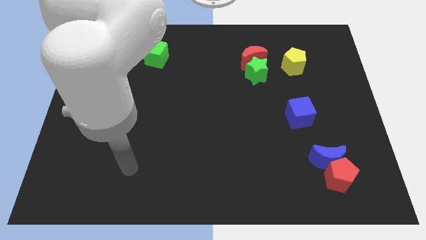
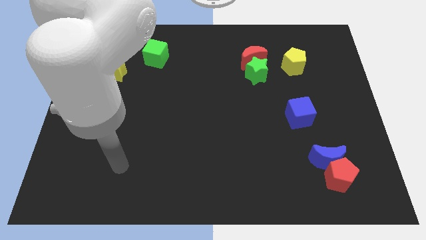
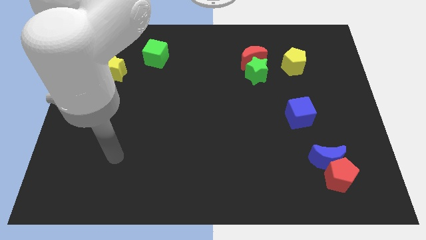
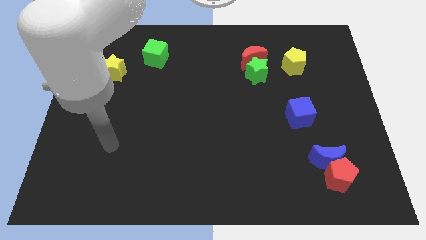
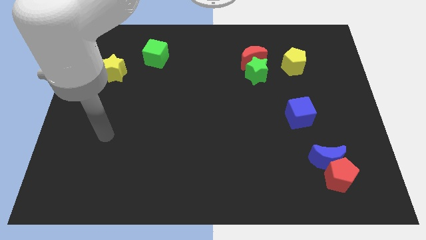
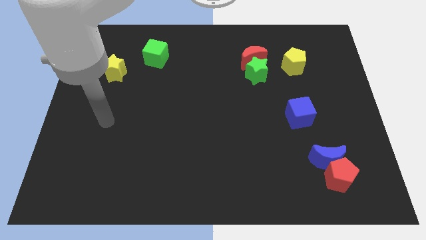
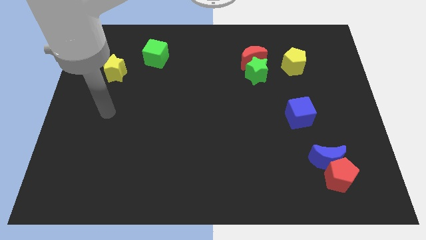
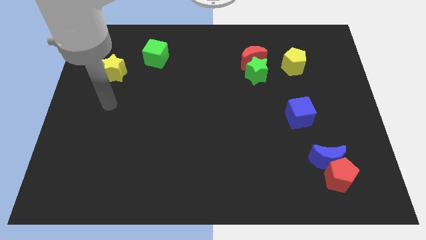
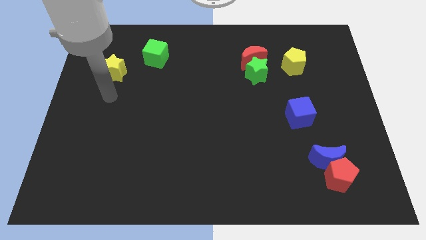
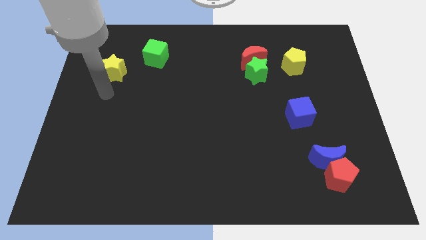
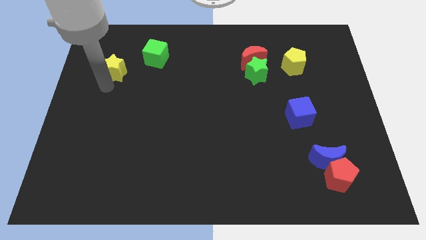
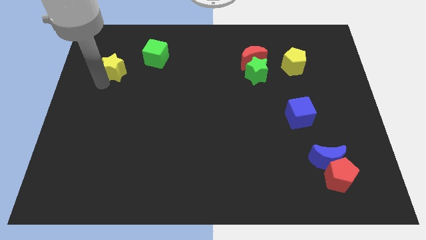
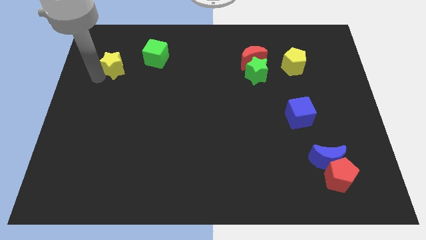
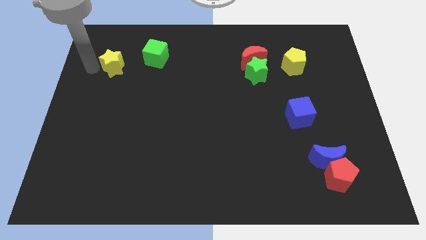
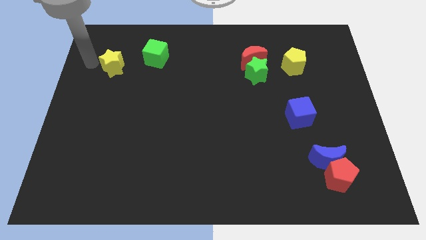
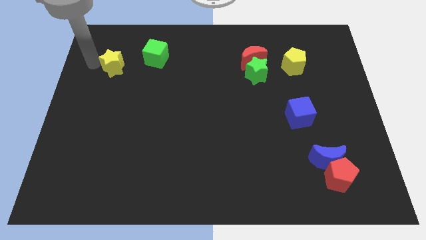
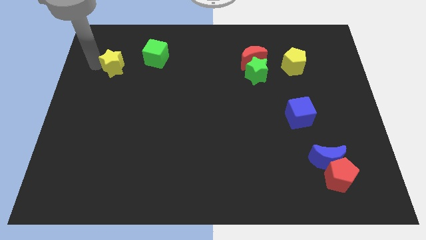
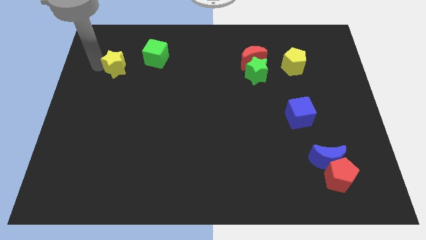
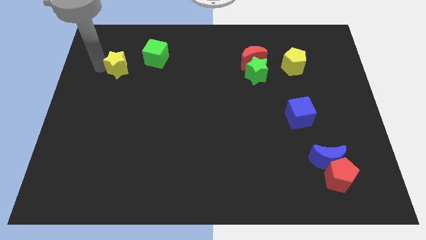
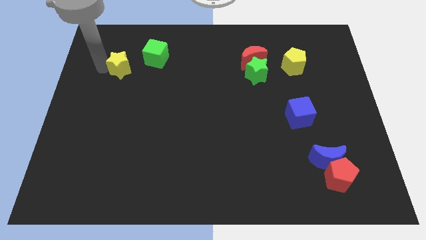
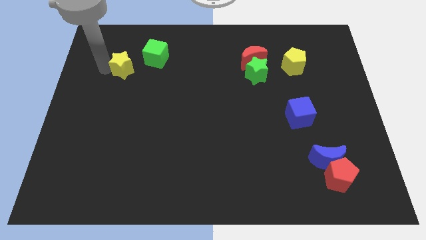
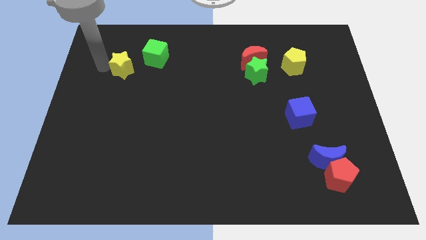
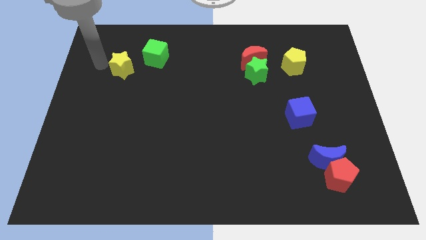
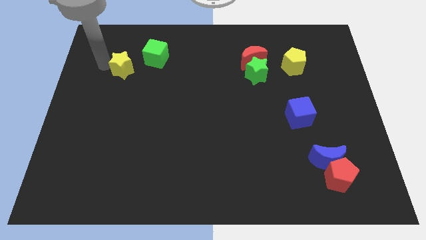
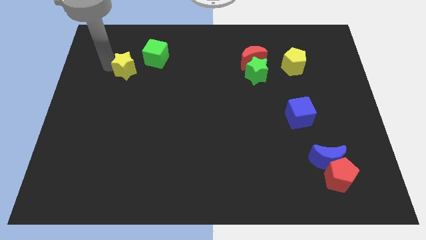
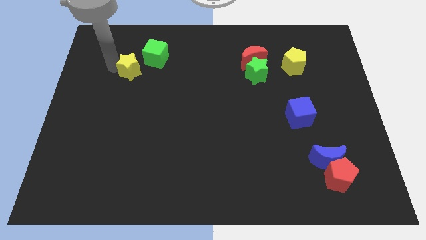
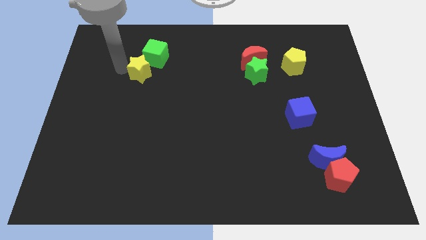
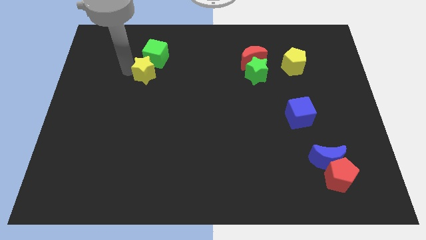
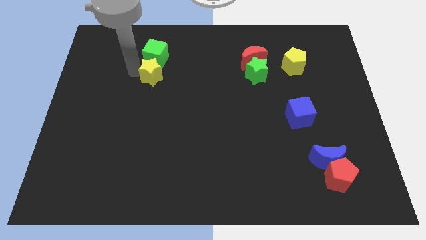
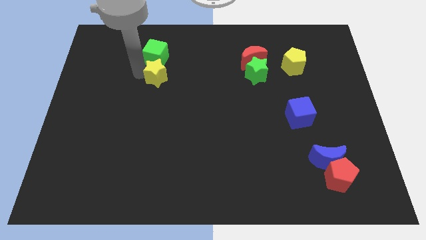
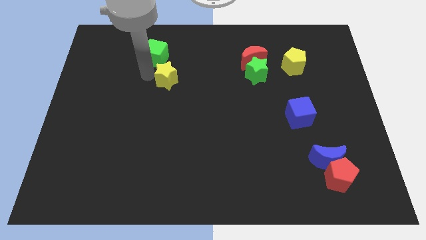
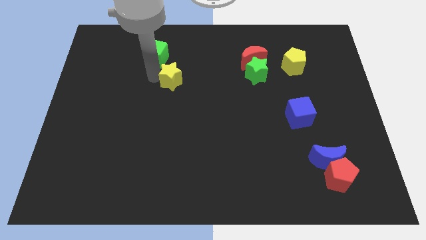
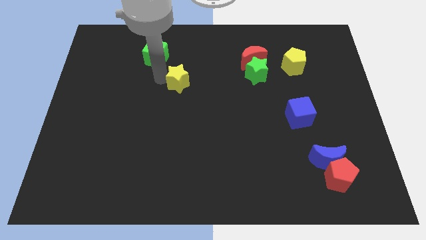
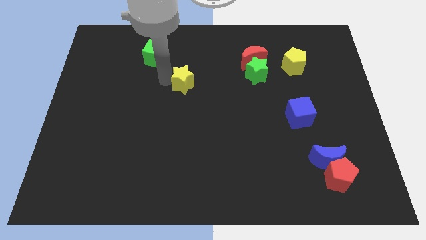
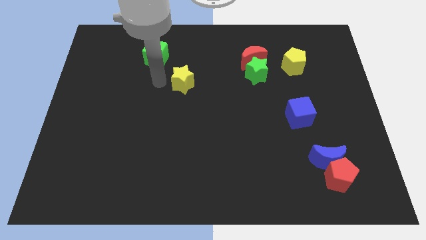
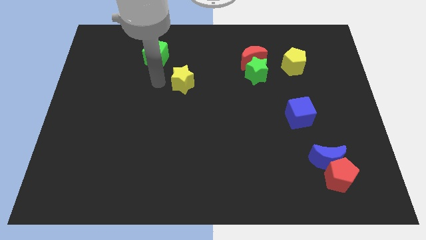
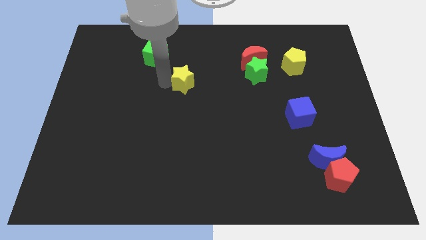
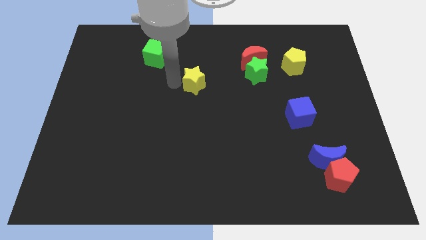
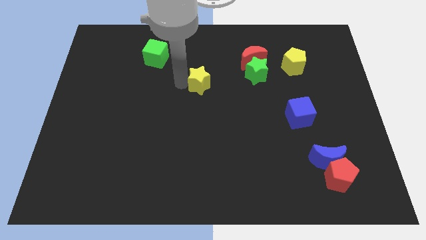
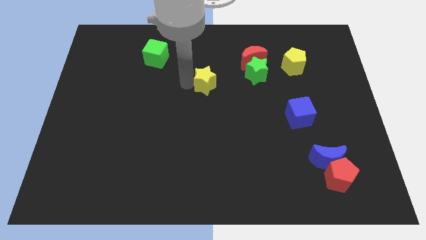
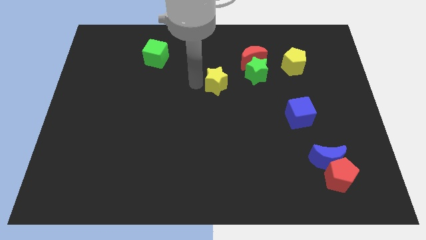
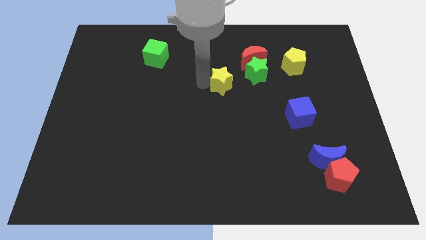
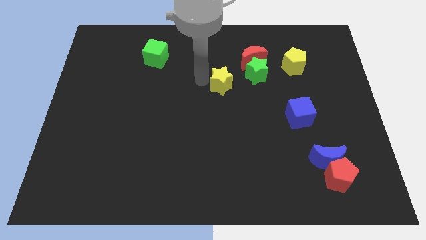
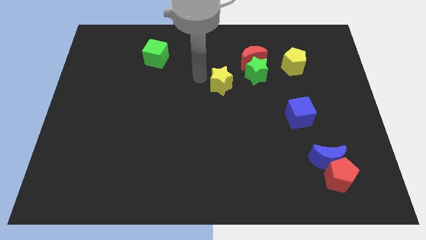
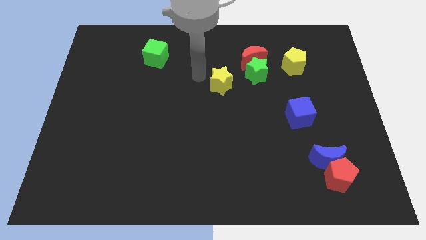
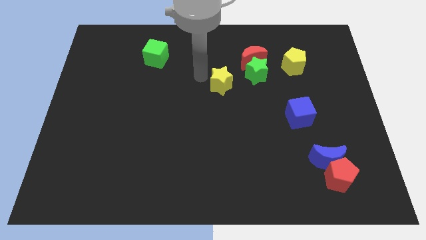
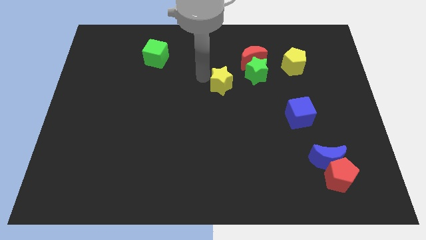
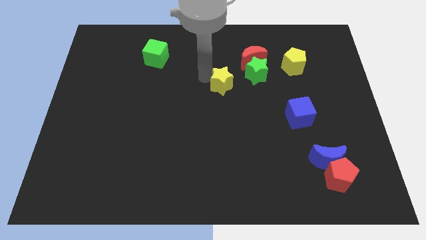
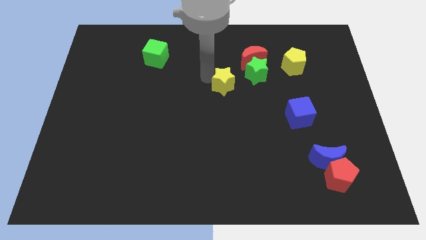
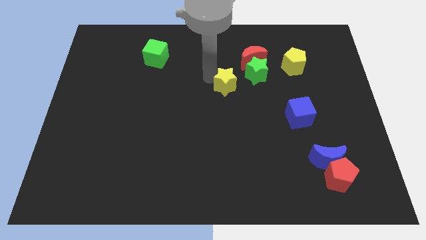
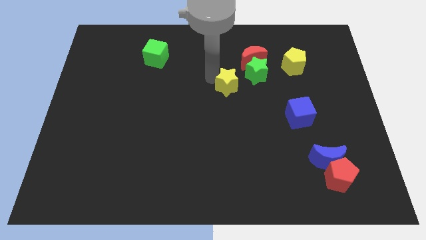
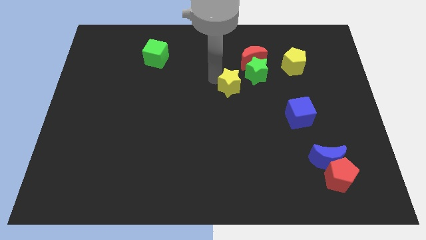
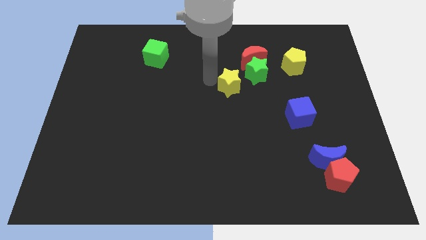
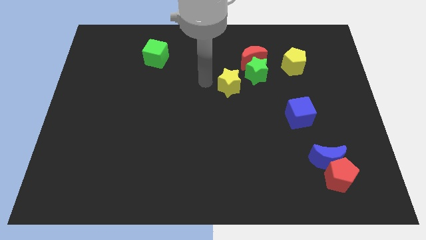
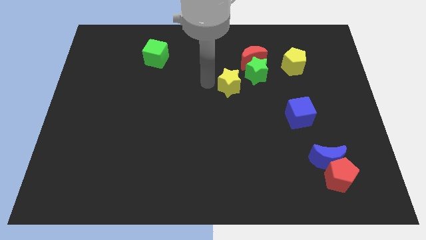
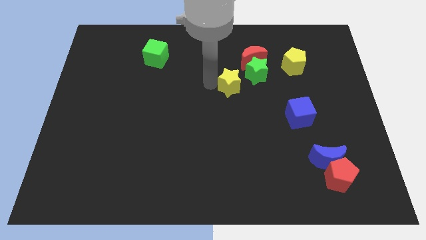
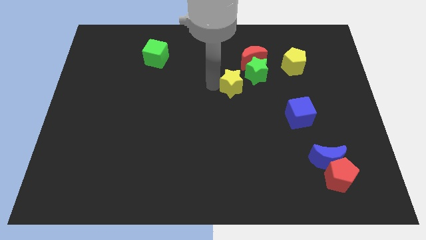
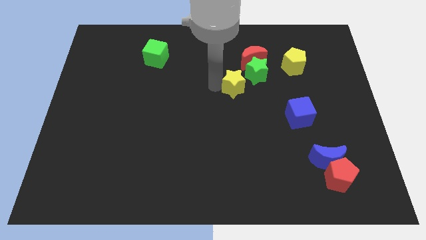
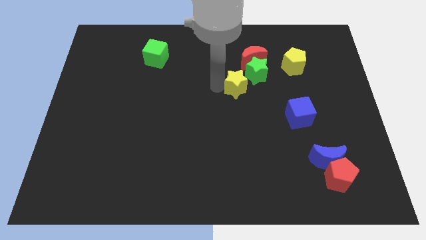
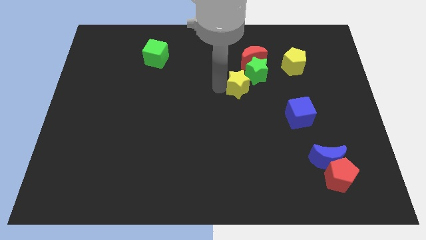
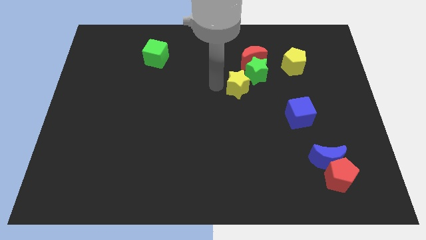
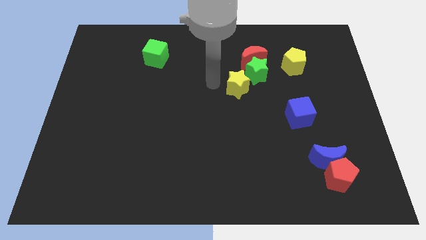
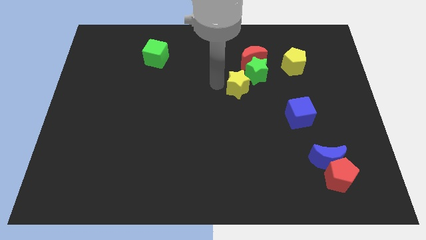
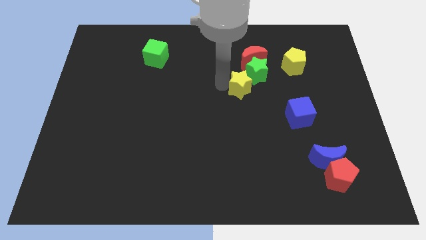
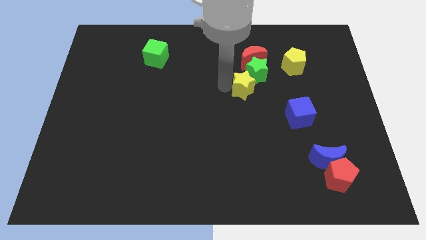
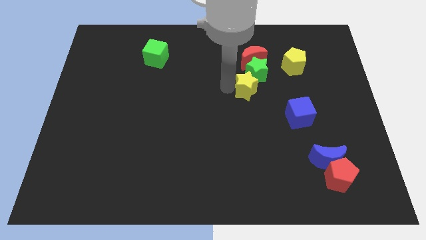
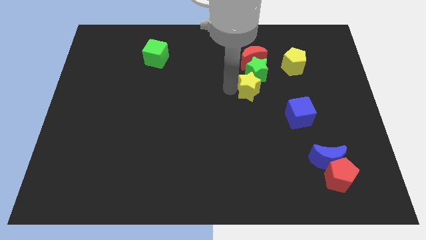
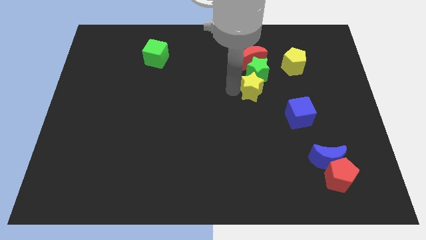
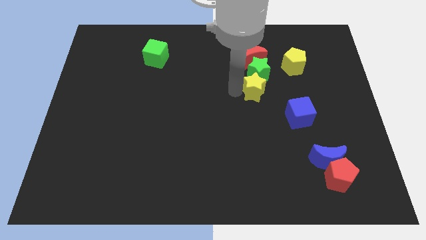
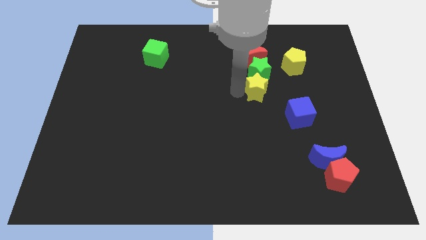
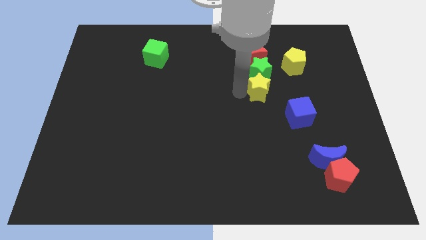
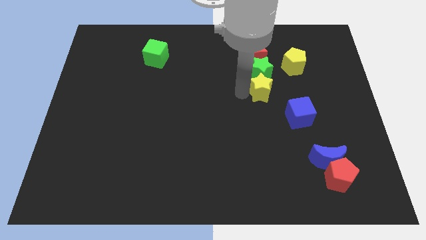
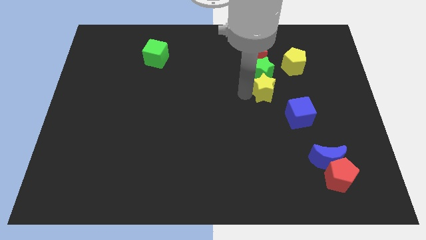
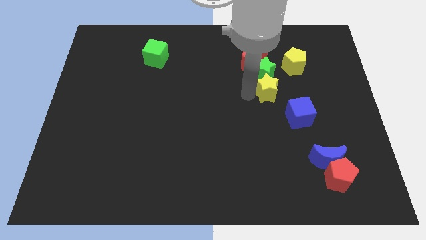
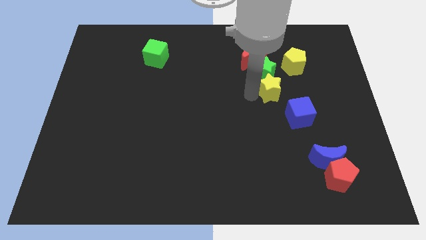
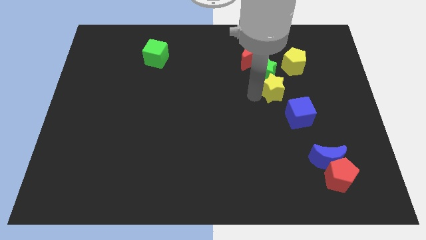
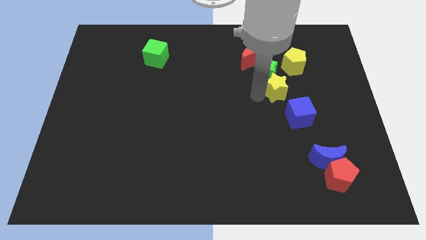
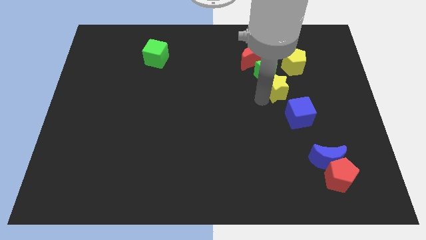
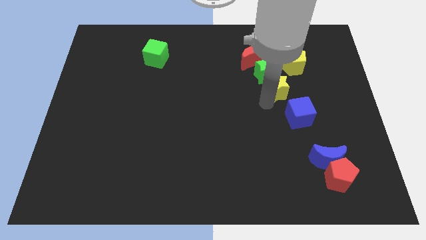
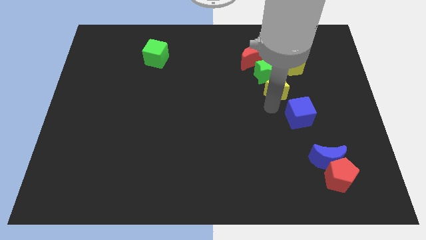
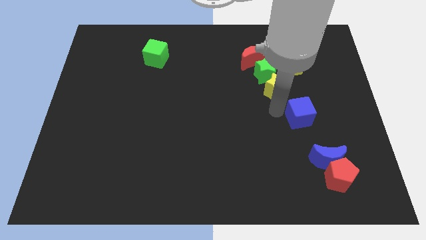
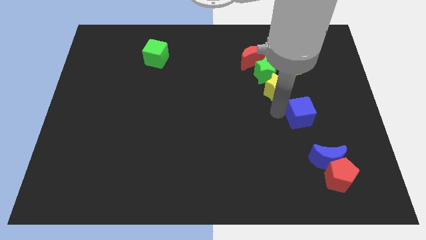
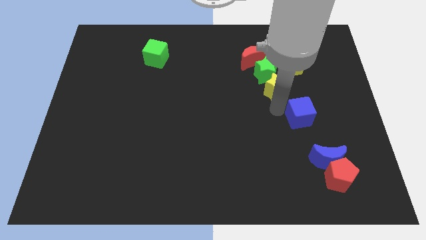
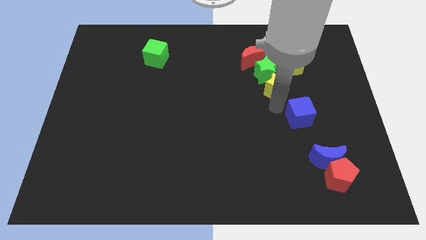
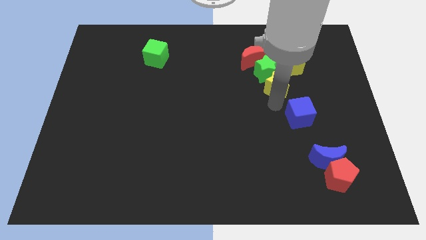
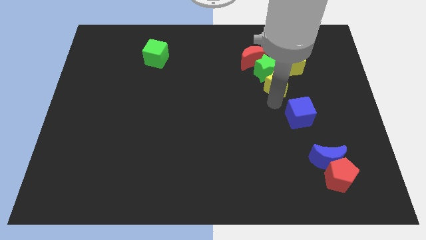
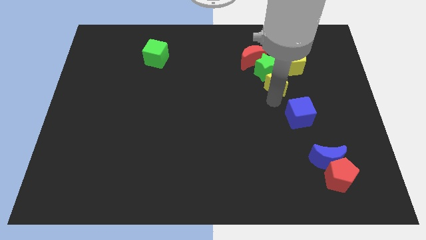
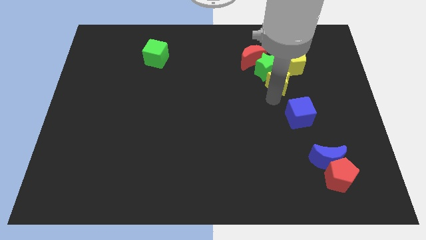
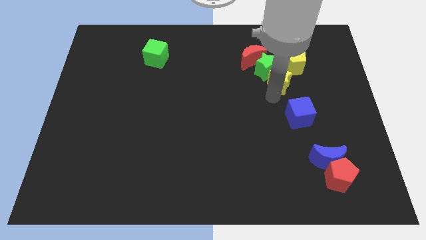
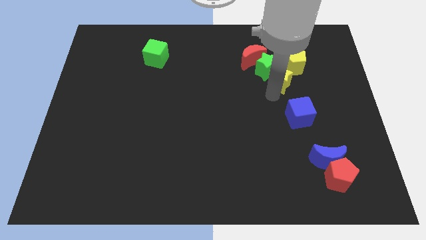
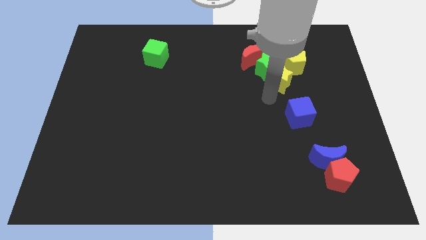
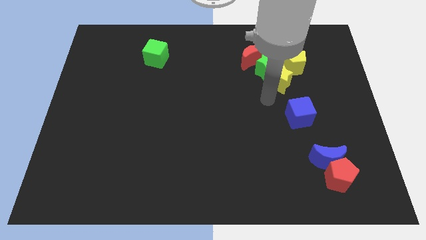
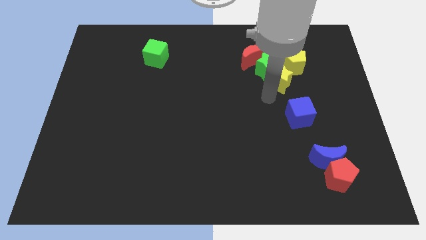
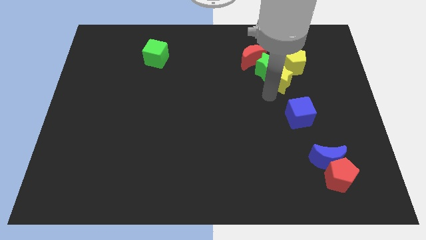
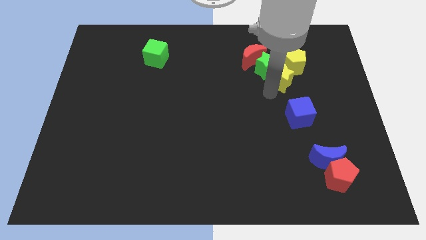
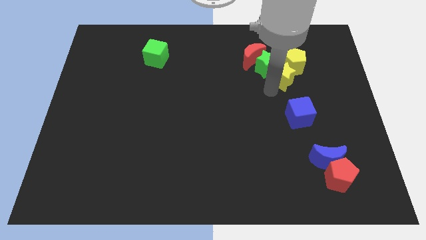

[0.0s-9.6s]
push the yellow star close to the yellow pentagon
